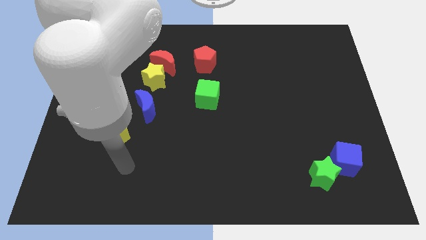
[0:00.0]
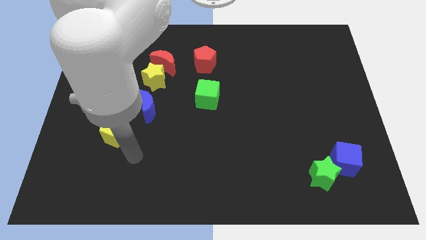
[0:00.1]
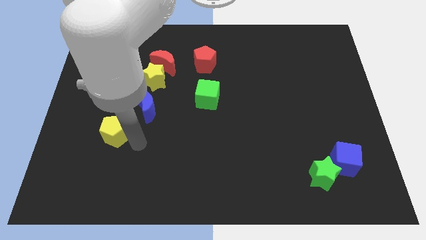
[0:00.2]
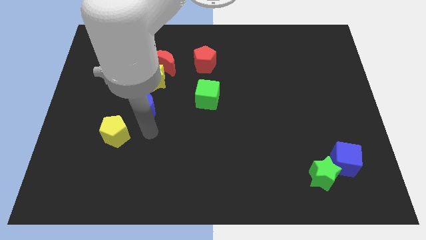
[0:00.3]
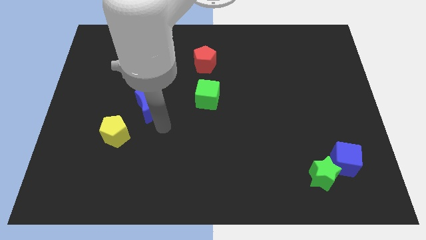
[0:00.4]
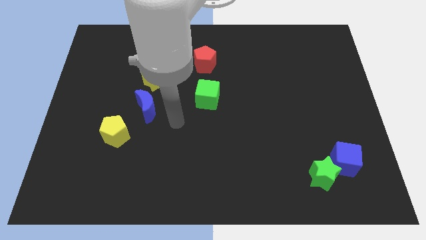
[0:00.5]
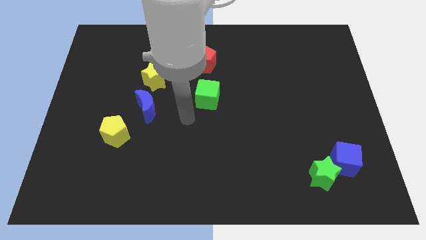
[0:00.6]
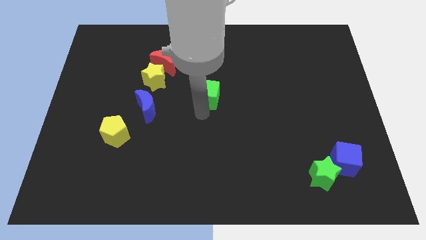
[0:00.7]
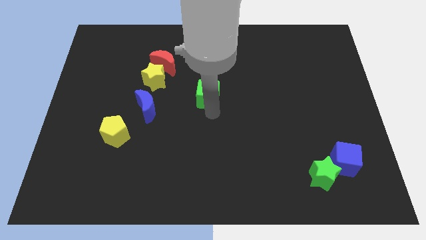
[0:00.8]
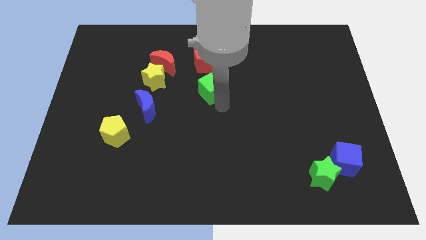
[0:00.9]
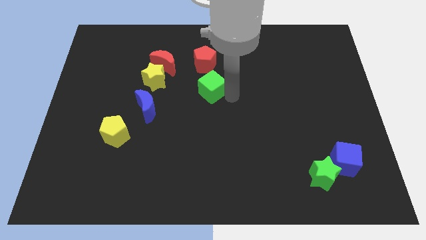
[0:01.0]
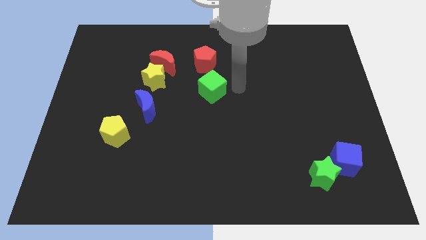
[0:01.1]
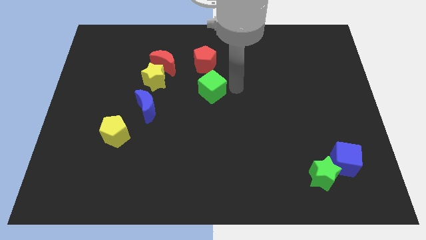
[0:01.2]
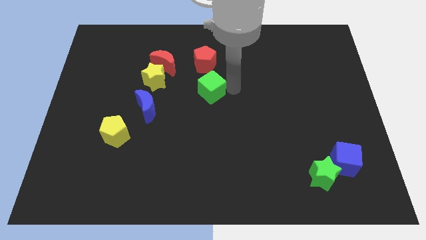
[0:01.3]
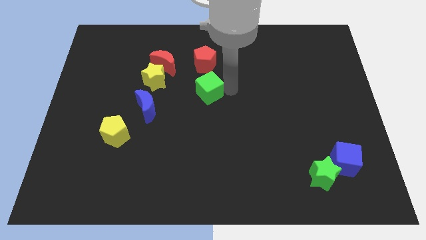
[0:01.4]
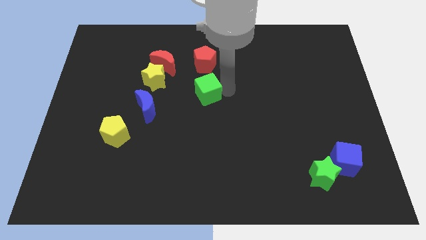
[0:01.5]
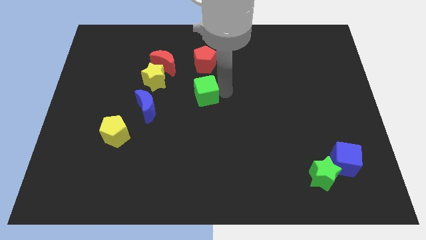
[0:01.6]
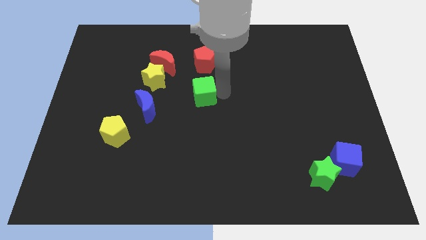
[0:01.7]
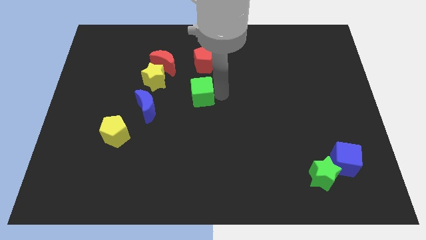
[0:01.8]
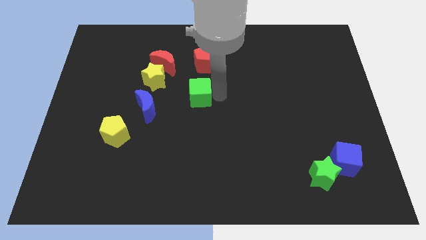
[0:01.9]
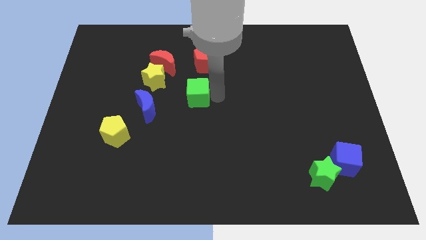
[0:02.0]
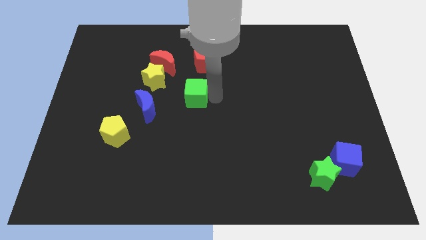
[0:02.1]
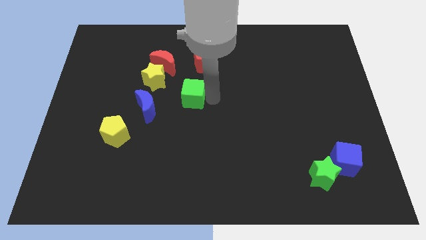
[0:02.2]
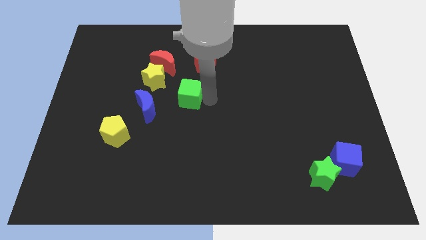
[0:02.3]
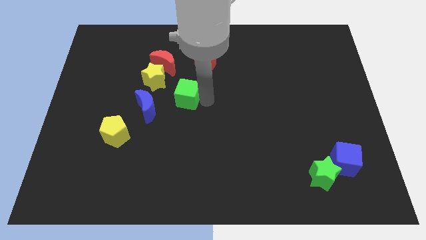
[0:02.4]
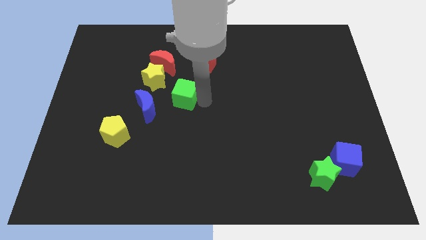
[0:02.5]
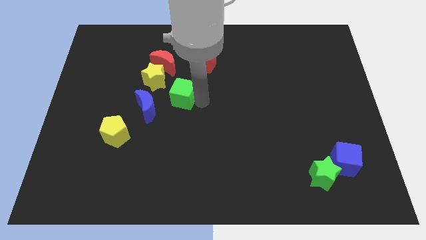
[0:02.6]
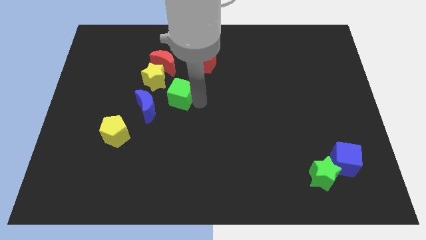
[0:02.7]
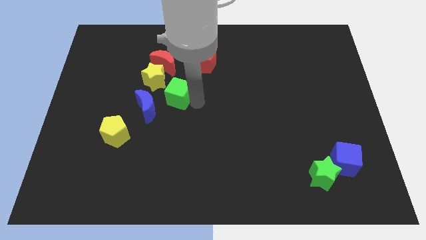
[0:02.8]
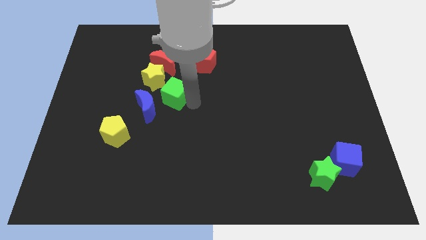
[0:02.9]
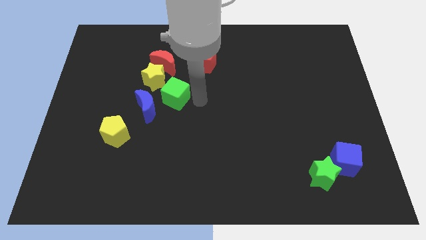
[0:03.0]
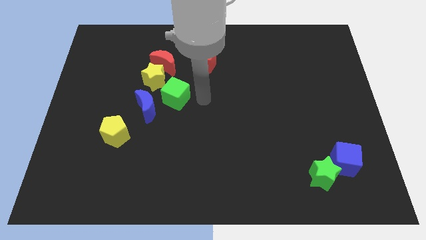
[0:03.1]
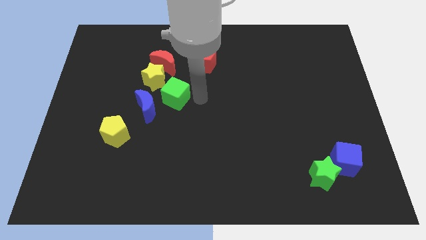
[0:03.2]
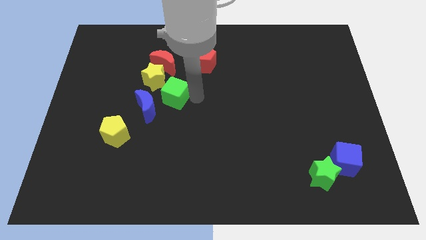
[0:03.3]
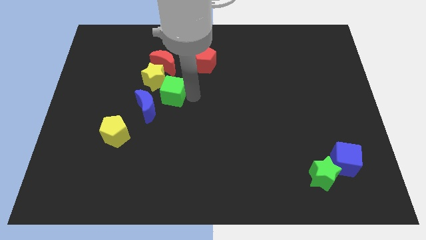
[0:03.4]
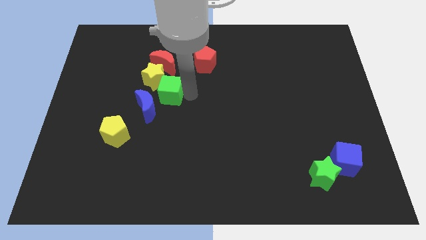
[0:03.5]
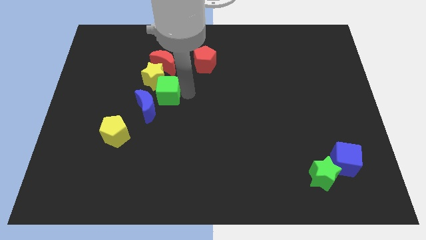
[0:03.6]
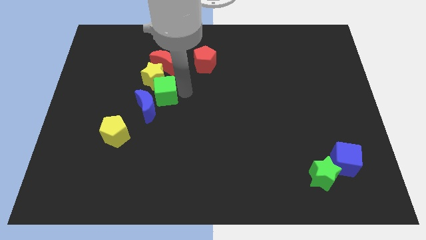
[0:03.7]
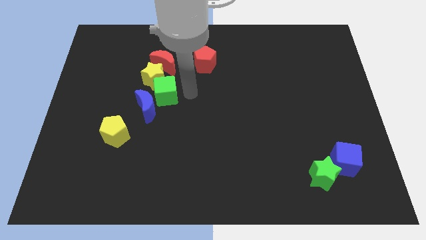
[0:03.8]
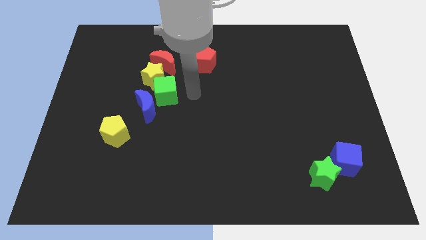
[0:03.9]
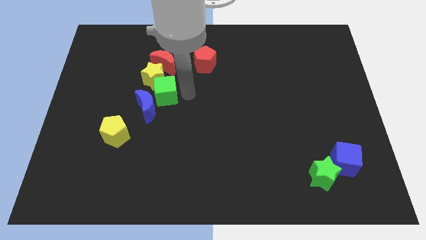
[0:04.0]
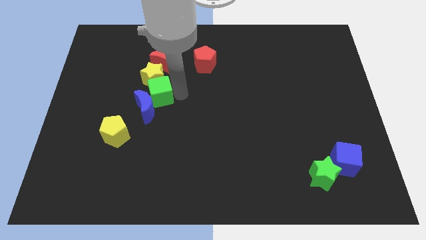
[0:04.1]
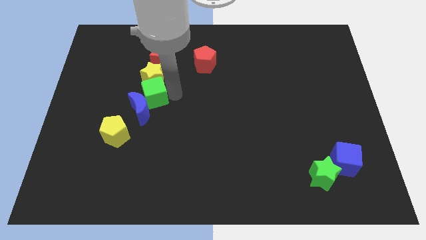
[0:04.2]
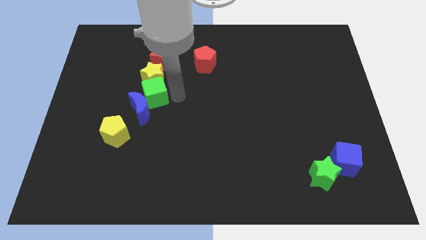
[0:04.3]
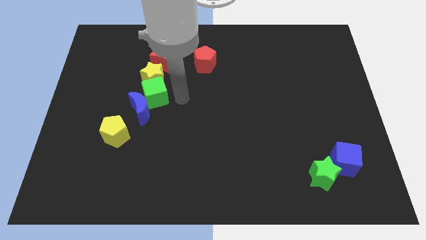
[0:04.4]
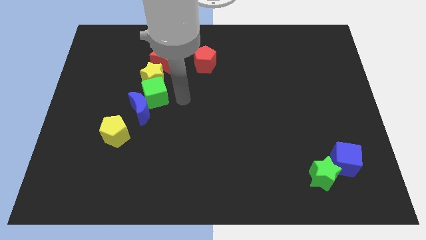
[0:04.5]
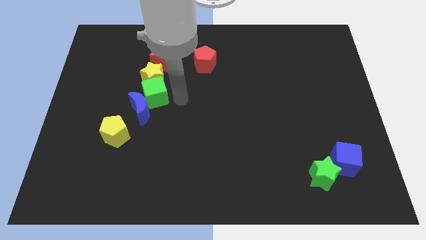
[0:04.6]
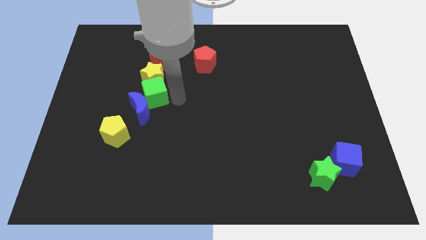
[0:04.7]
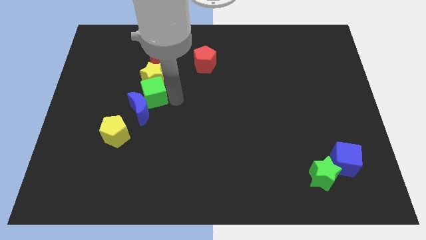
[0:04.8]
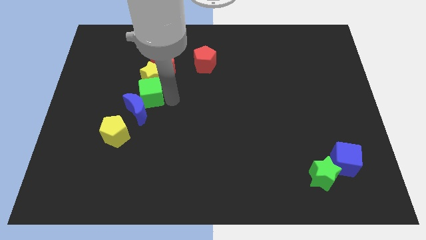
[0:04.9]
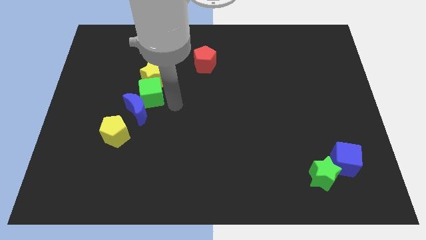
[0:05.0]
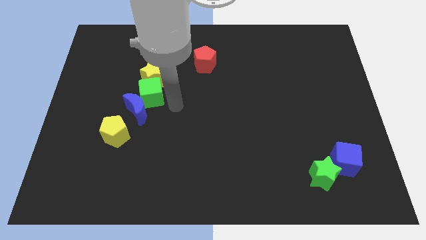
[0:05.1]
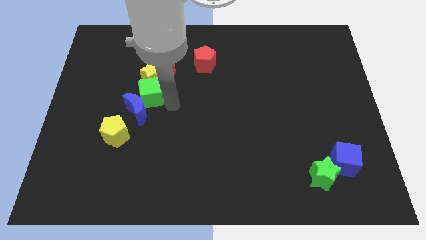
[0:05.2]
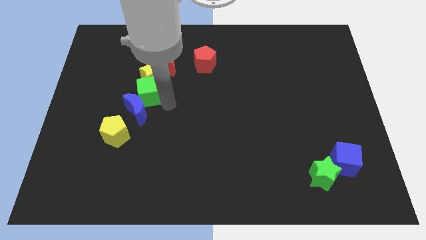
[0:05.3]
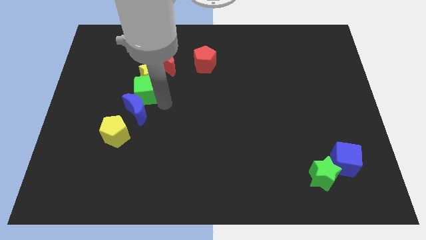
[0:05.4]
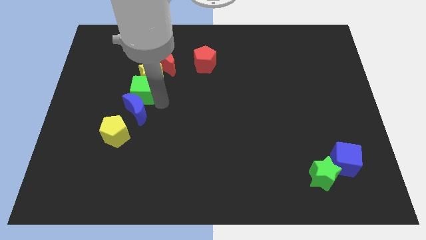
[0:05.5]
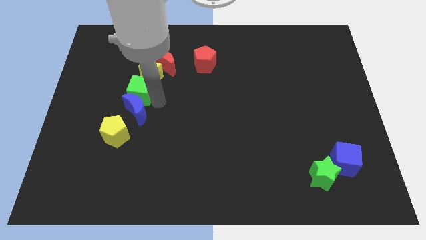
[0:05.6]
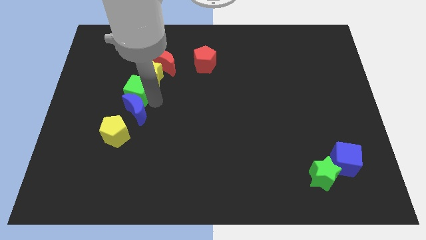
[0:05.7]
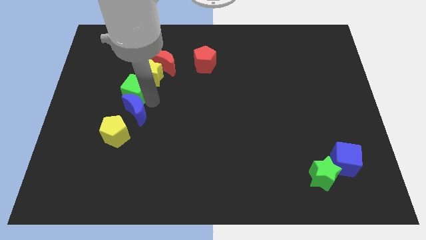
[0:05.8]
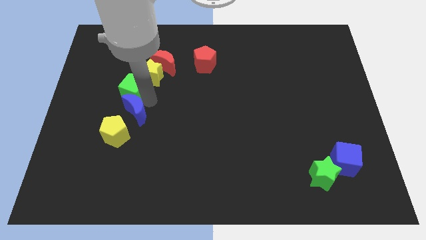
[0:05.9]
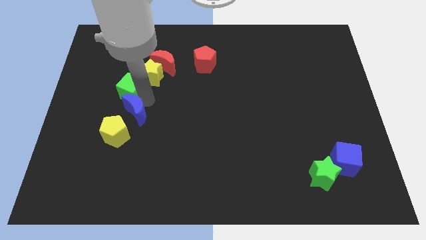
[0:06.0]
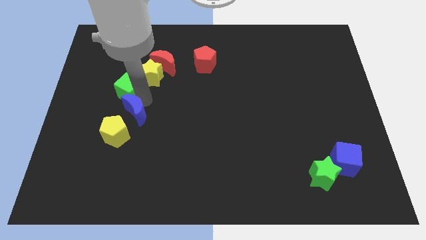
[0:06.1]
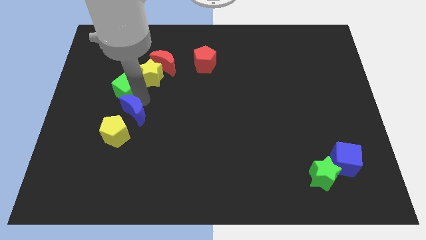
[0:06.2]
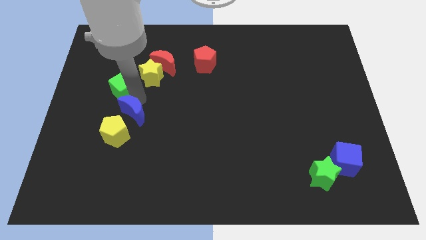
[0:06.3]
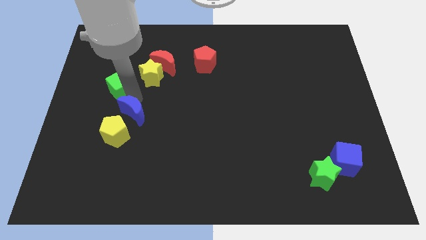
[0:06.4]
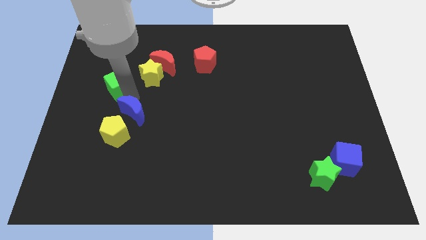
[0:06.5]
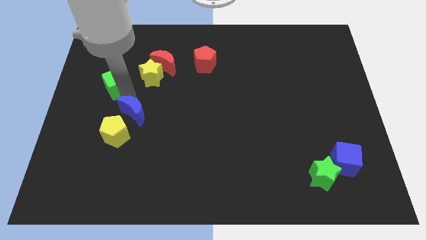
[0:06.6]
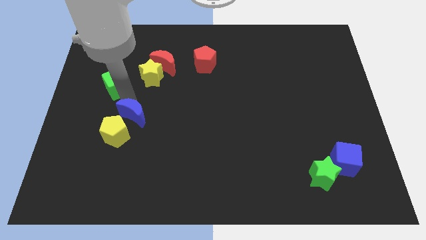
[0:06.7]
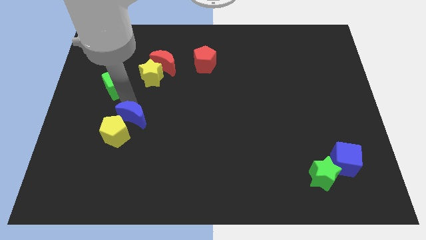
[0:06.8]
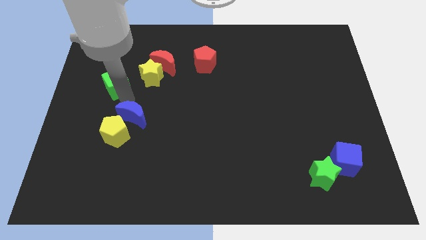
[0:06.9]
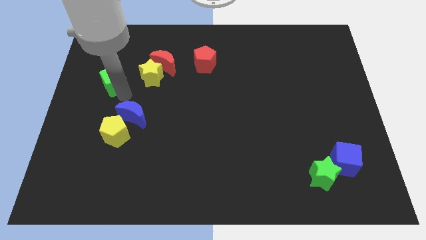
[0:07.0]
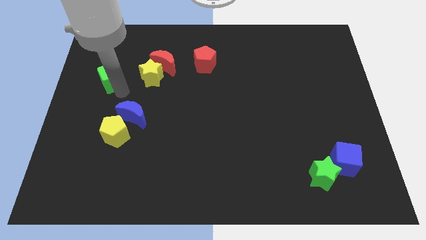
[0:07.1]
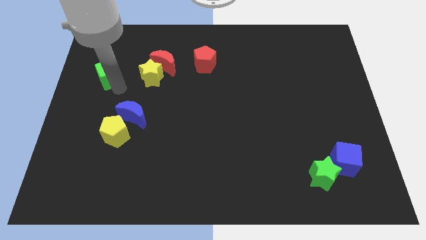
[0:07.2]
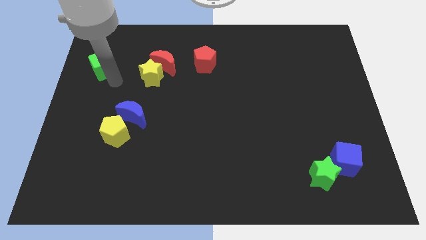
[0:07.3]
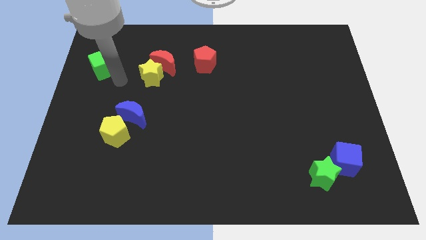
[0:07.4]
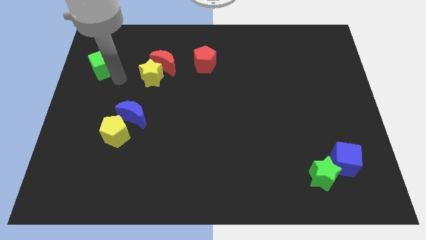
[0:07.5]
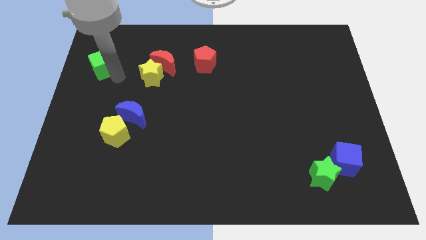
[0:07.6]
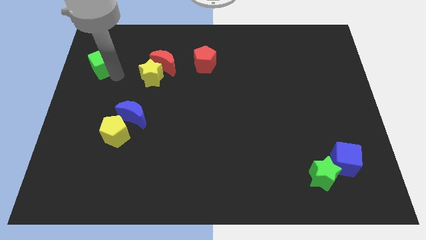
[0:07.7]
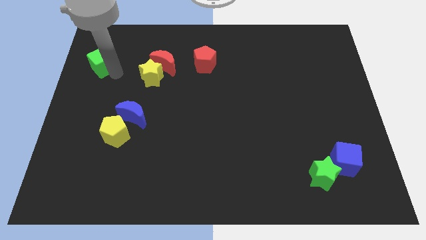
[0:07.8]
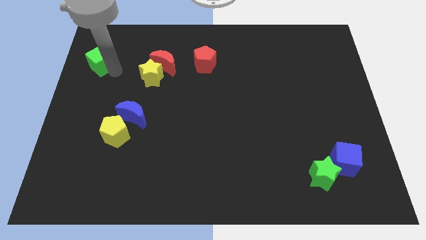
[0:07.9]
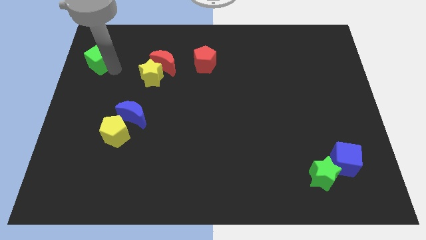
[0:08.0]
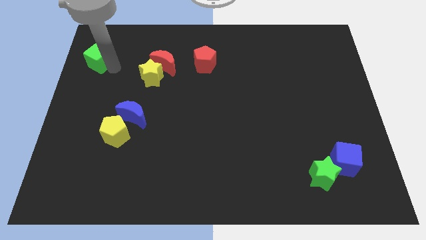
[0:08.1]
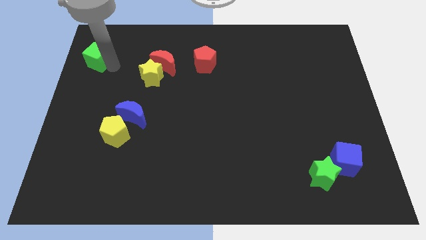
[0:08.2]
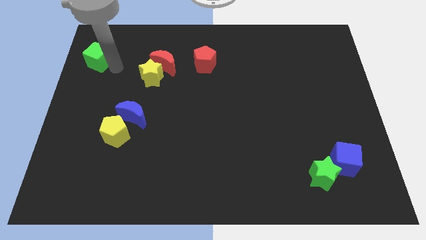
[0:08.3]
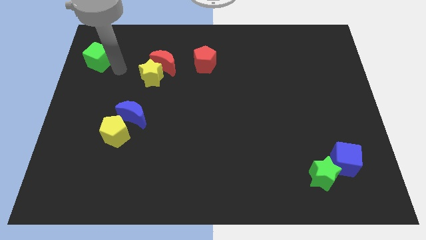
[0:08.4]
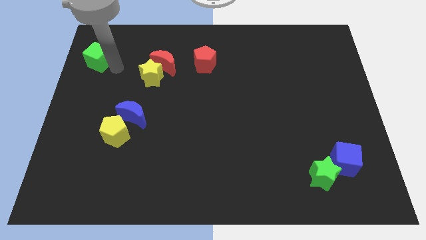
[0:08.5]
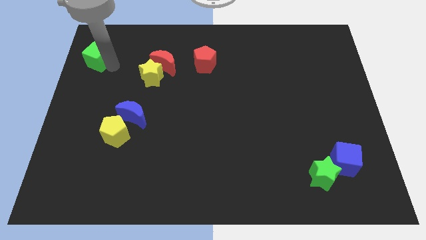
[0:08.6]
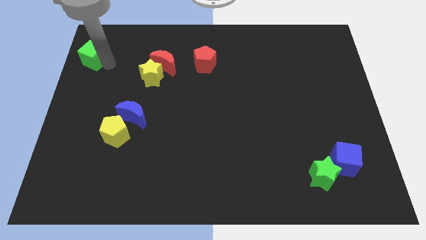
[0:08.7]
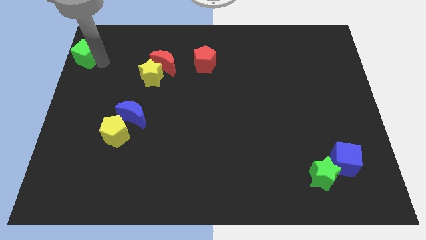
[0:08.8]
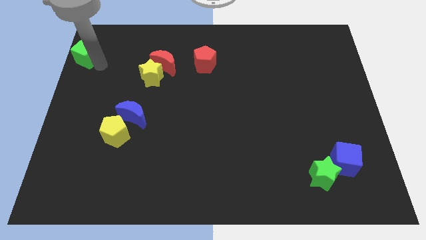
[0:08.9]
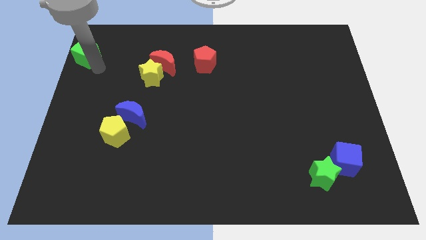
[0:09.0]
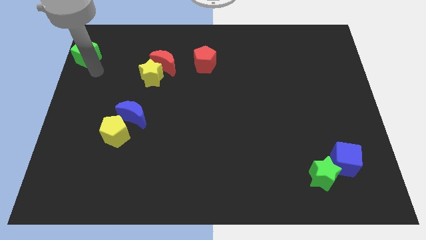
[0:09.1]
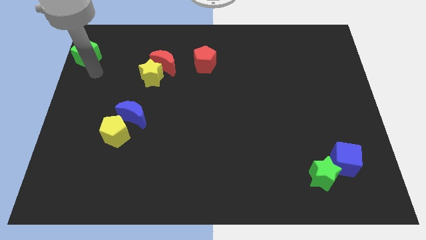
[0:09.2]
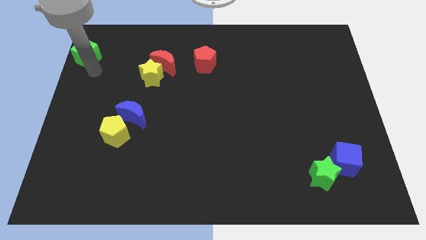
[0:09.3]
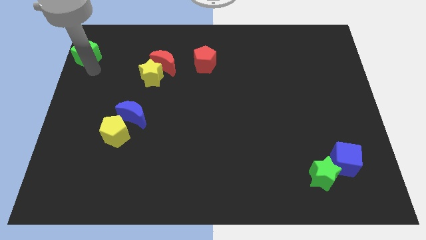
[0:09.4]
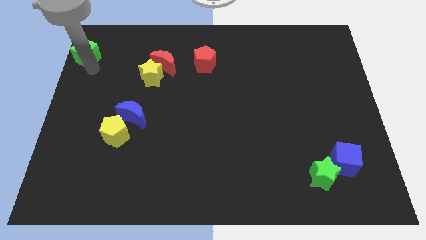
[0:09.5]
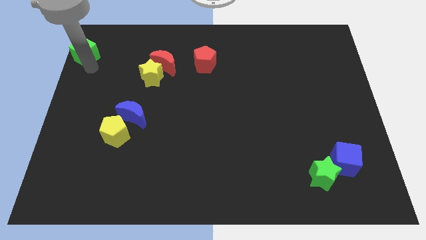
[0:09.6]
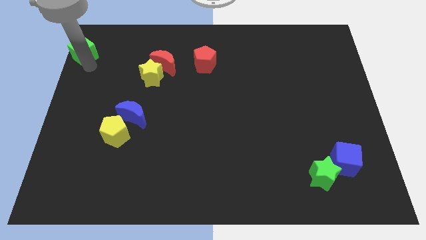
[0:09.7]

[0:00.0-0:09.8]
put the green cube to the upper left corner
